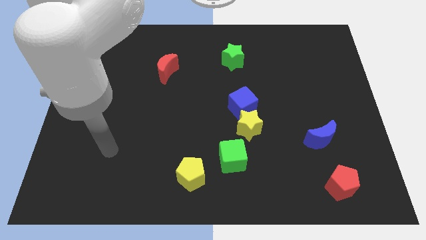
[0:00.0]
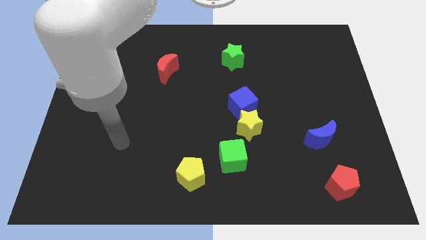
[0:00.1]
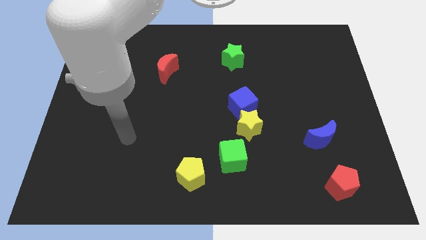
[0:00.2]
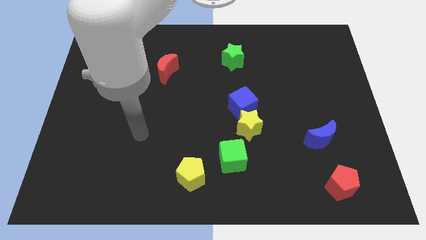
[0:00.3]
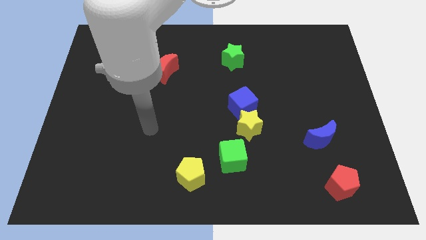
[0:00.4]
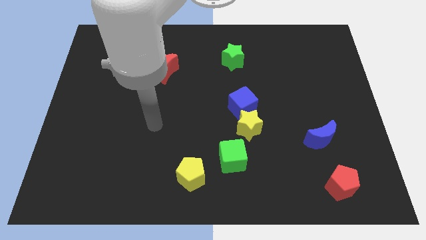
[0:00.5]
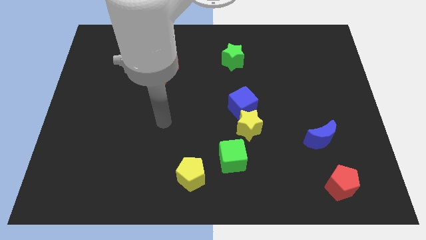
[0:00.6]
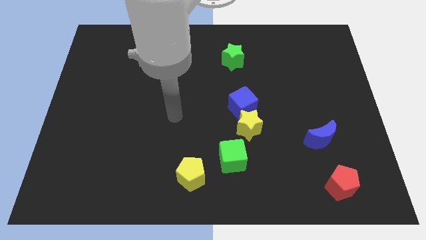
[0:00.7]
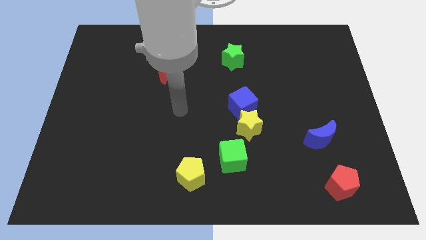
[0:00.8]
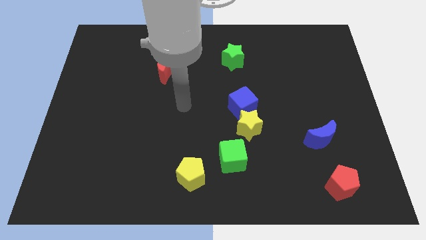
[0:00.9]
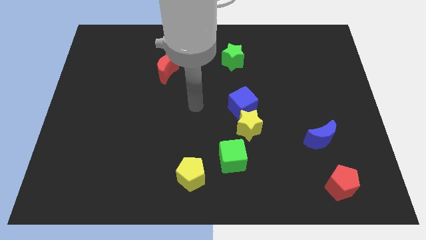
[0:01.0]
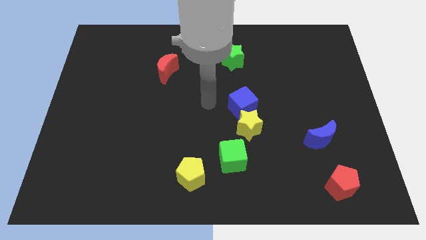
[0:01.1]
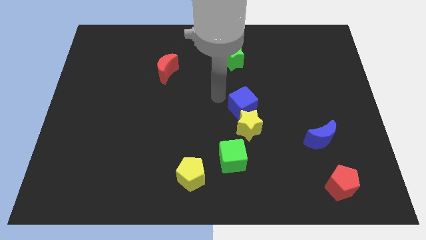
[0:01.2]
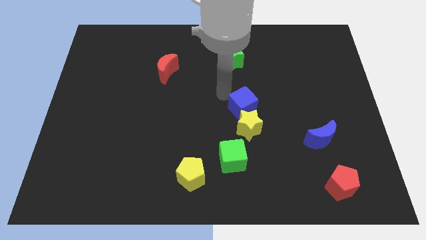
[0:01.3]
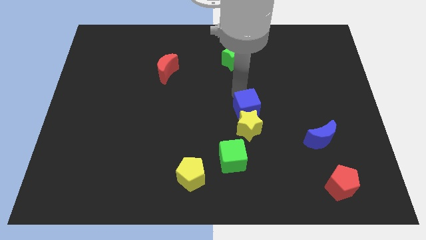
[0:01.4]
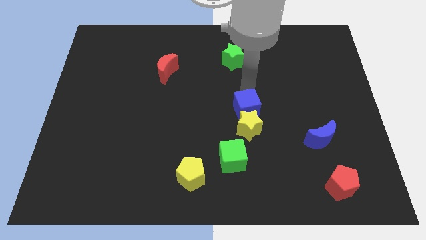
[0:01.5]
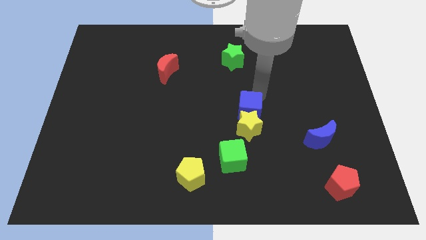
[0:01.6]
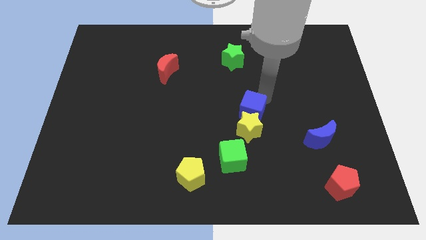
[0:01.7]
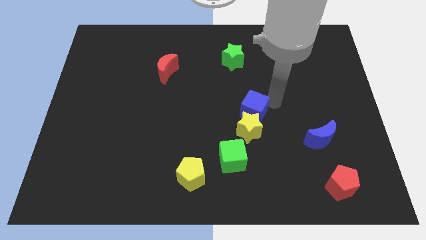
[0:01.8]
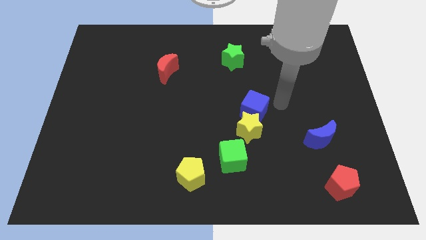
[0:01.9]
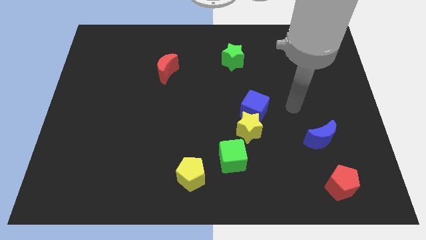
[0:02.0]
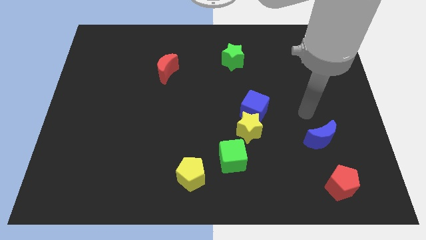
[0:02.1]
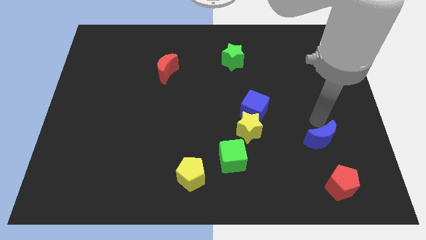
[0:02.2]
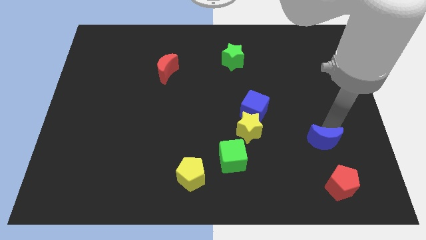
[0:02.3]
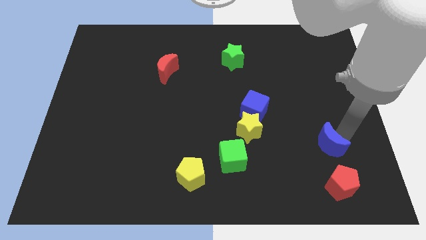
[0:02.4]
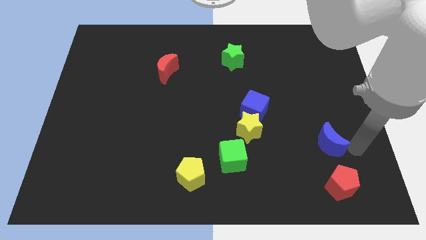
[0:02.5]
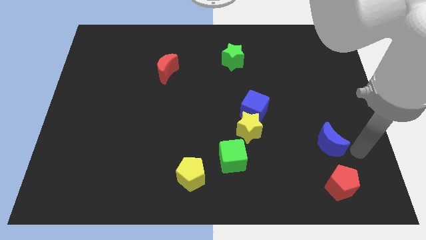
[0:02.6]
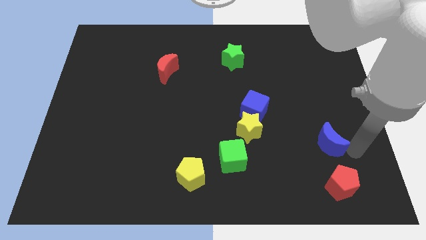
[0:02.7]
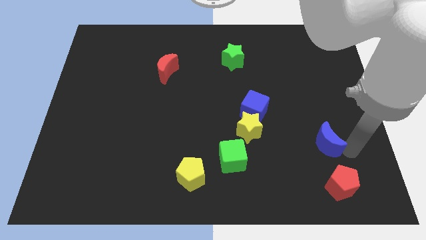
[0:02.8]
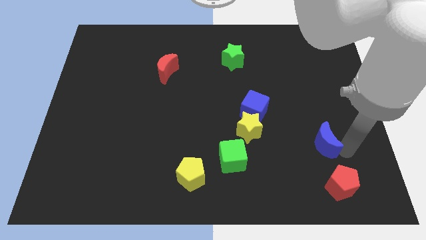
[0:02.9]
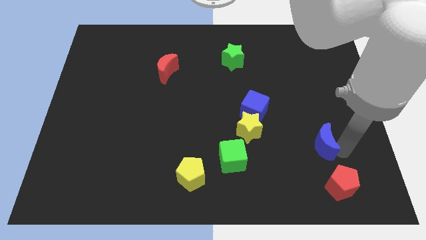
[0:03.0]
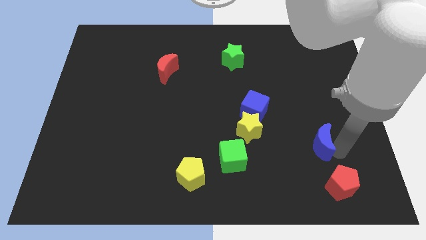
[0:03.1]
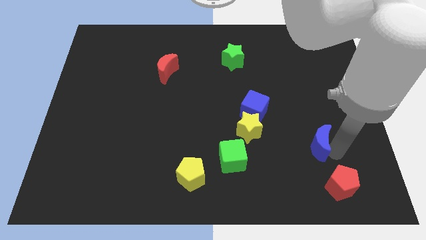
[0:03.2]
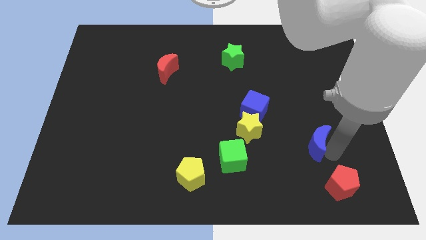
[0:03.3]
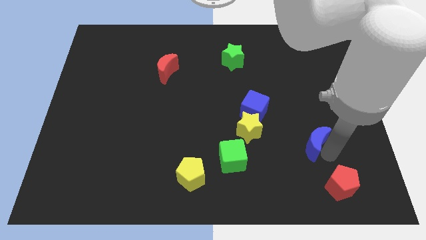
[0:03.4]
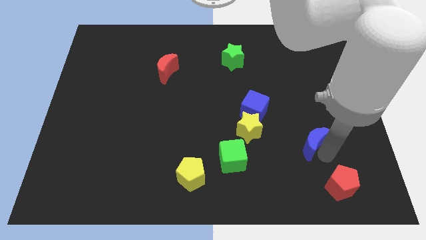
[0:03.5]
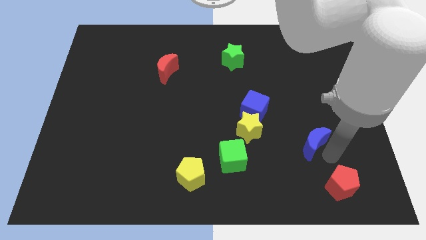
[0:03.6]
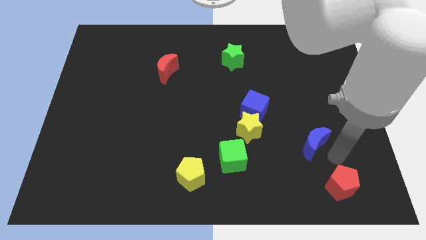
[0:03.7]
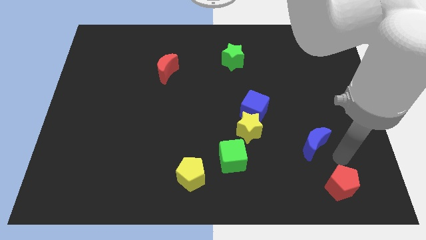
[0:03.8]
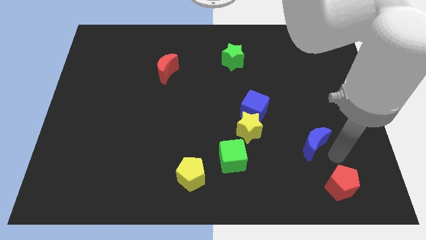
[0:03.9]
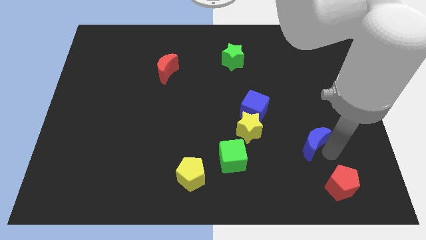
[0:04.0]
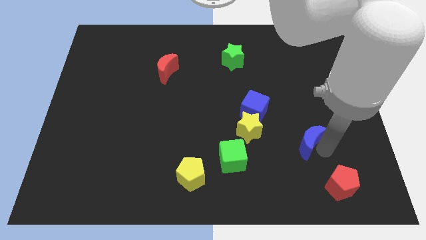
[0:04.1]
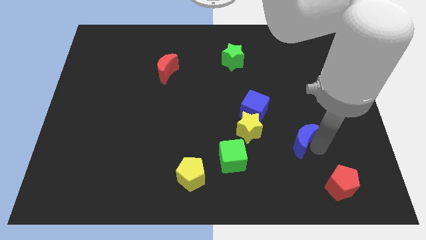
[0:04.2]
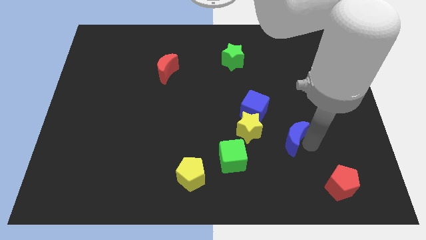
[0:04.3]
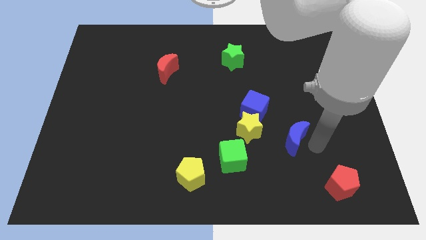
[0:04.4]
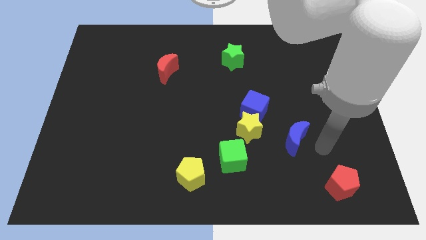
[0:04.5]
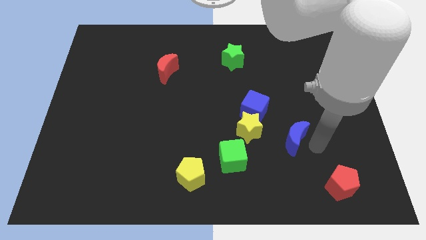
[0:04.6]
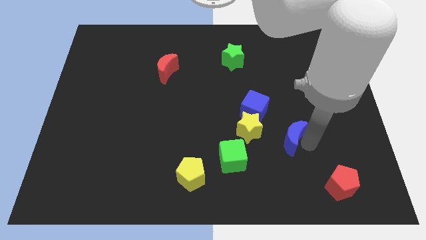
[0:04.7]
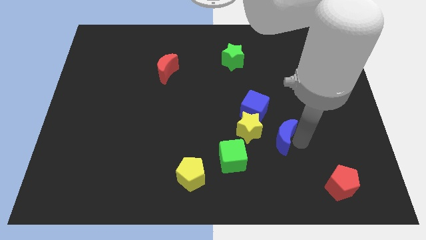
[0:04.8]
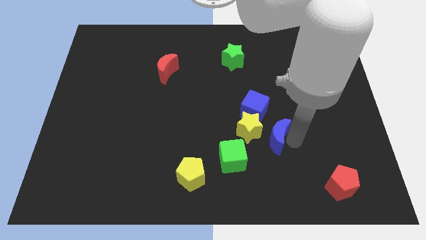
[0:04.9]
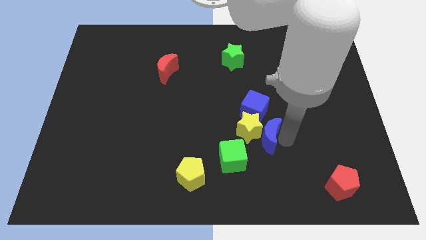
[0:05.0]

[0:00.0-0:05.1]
slide the blue moon to the yellow star

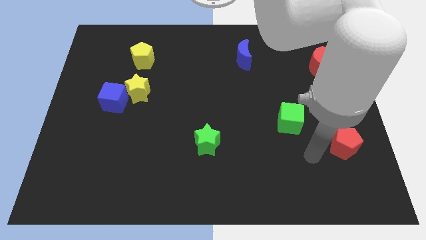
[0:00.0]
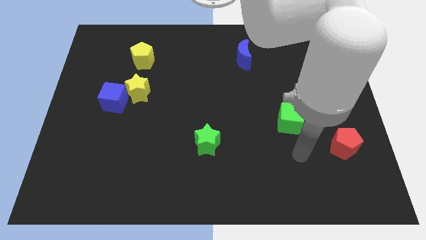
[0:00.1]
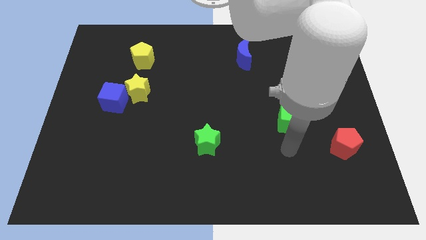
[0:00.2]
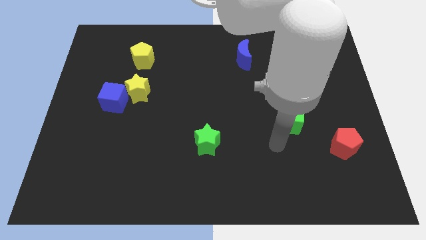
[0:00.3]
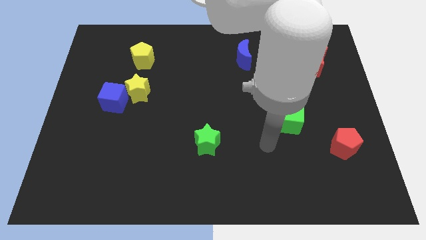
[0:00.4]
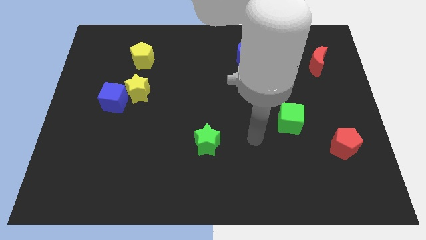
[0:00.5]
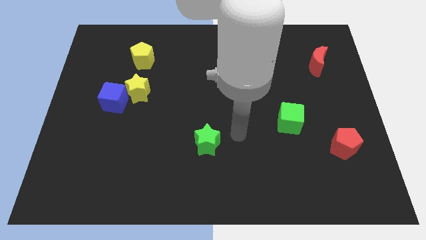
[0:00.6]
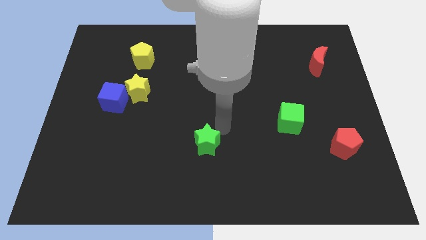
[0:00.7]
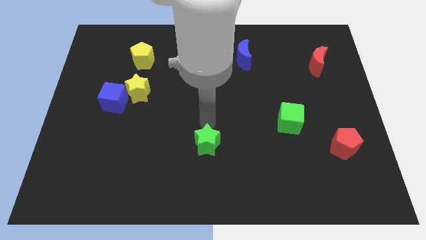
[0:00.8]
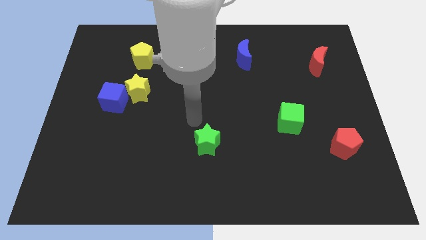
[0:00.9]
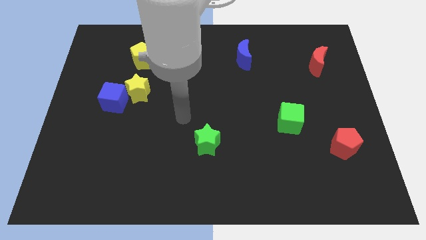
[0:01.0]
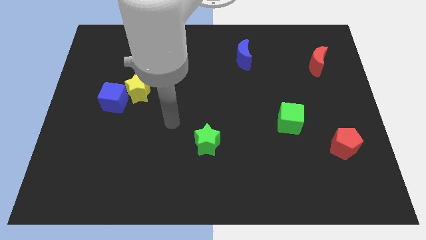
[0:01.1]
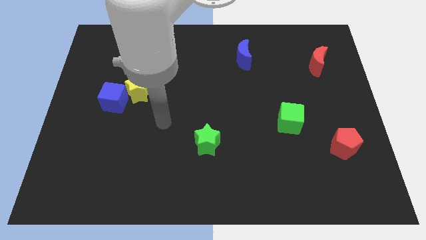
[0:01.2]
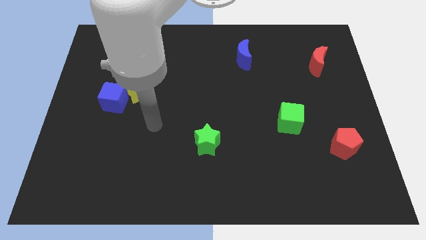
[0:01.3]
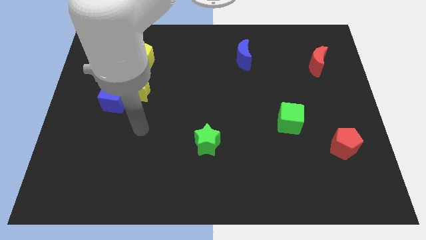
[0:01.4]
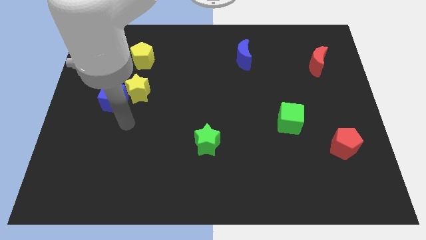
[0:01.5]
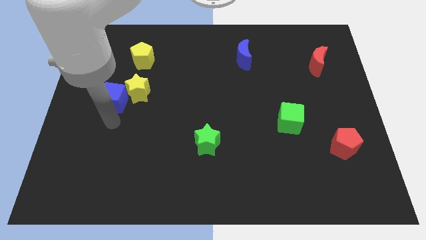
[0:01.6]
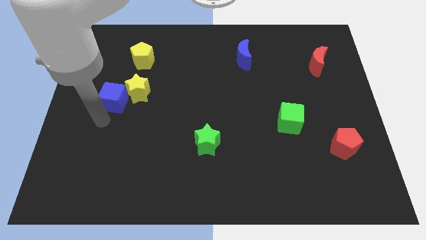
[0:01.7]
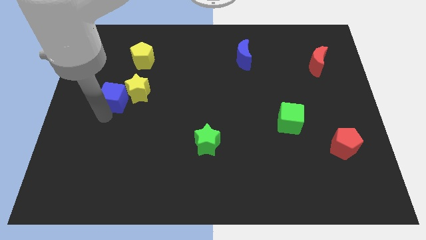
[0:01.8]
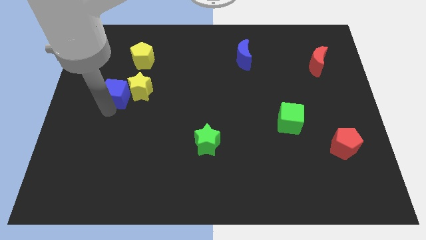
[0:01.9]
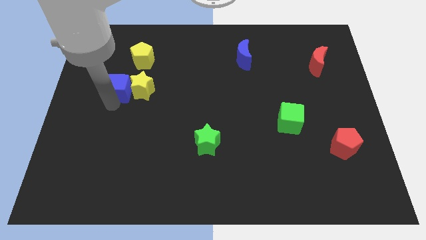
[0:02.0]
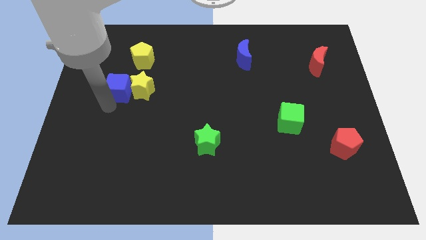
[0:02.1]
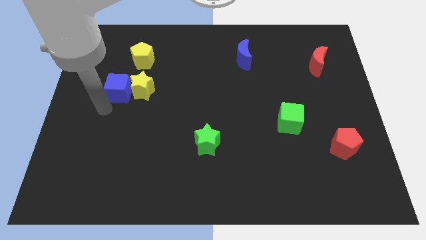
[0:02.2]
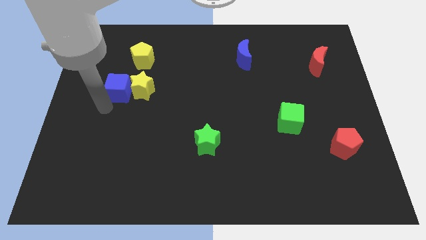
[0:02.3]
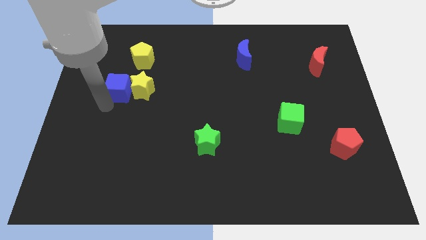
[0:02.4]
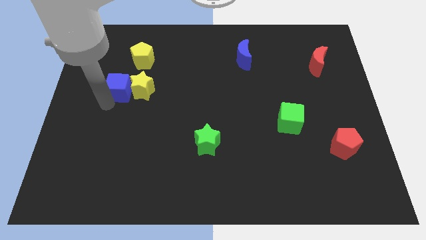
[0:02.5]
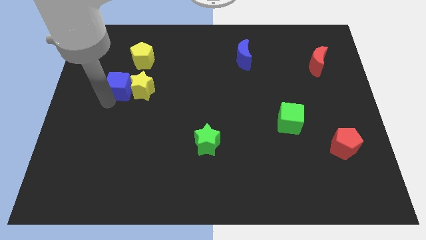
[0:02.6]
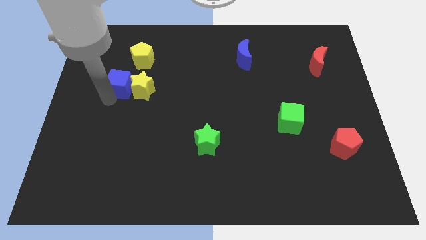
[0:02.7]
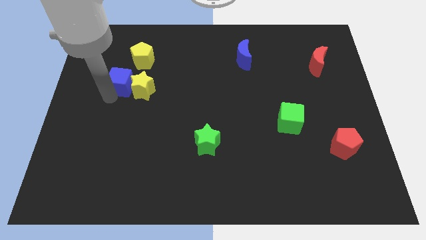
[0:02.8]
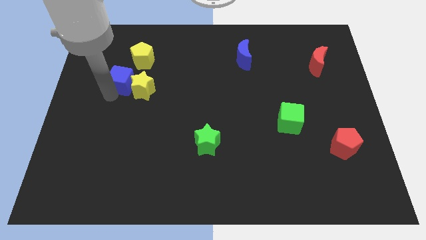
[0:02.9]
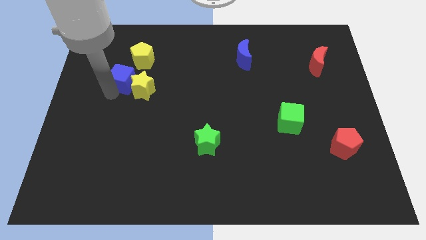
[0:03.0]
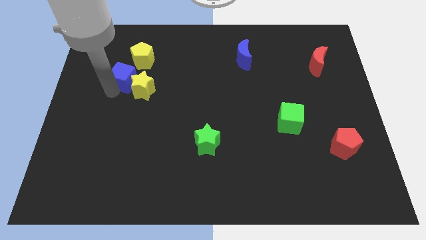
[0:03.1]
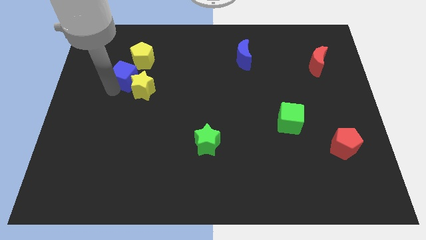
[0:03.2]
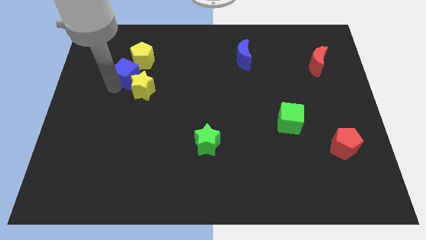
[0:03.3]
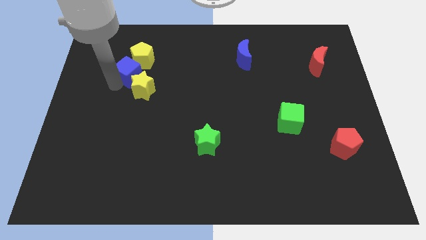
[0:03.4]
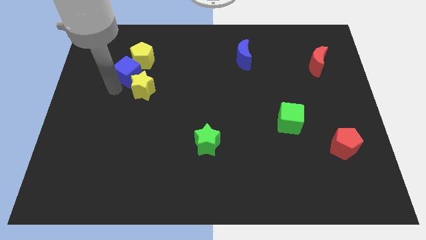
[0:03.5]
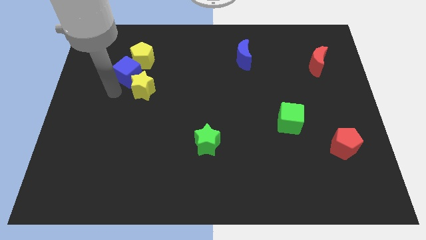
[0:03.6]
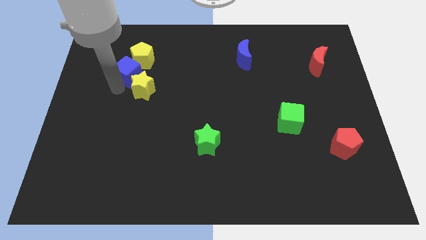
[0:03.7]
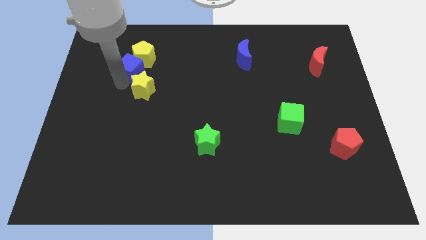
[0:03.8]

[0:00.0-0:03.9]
put the blue cube next to the yellow pentagon
